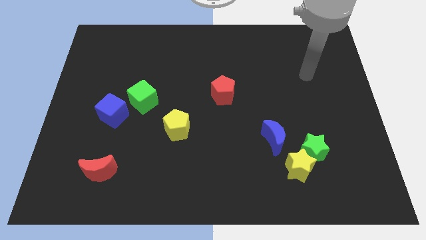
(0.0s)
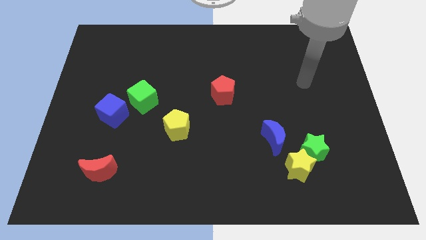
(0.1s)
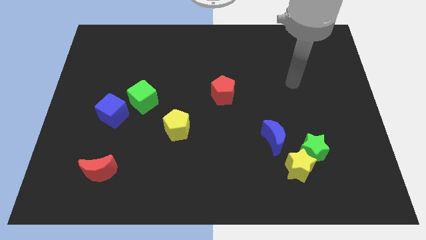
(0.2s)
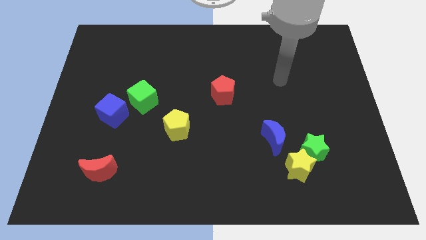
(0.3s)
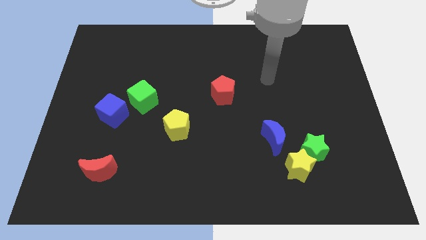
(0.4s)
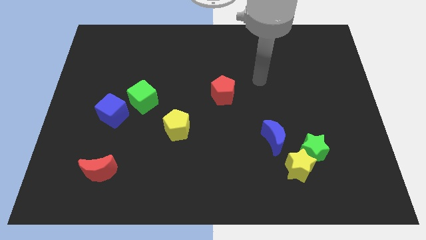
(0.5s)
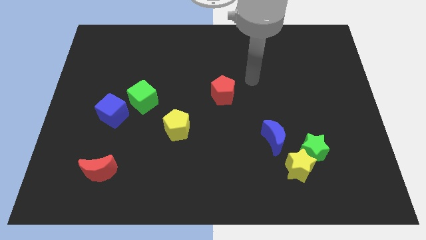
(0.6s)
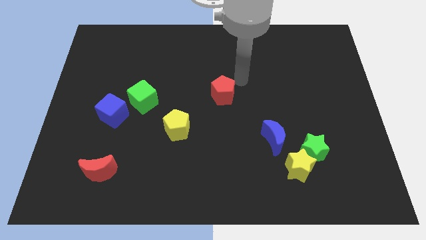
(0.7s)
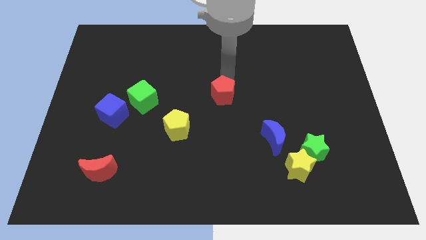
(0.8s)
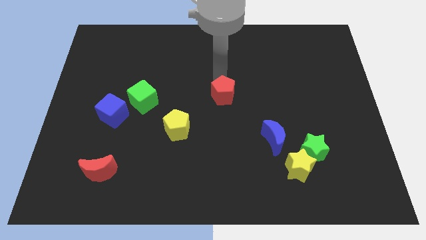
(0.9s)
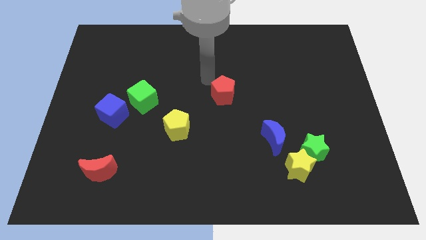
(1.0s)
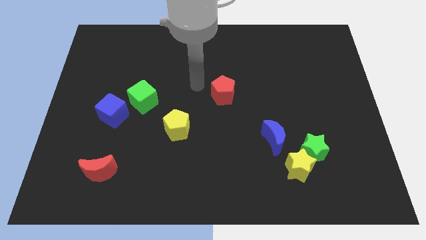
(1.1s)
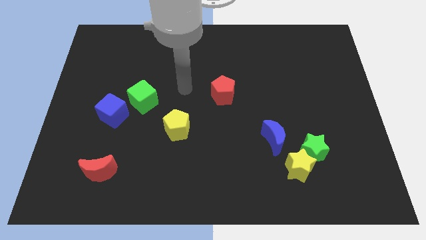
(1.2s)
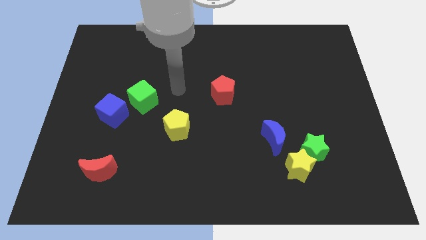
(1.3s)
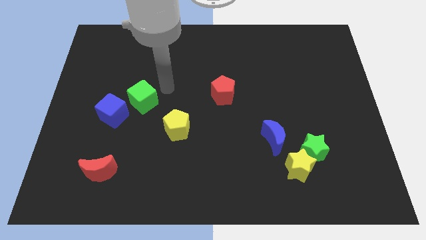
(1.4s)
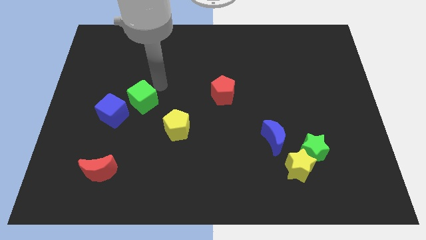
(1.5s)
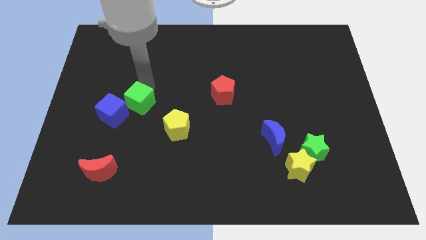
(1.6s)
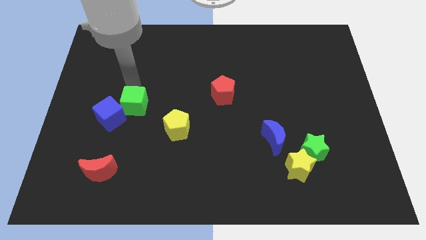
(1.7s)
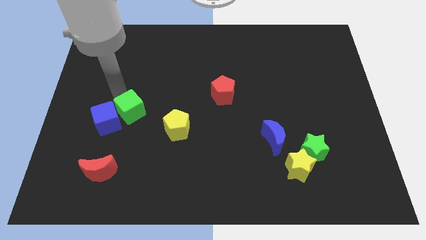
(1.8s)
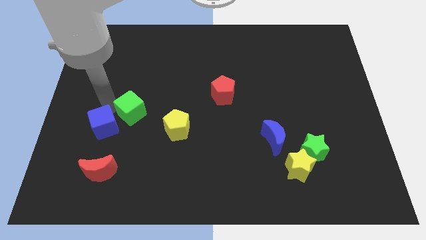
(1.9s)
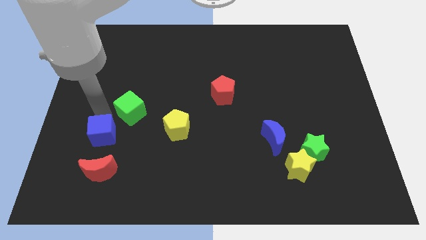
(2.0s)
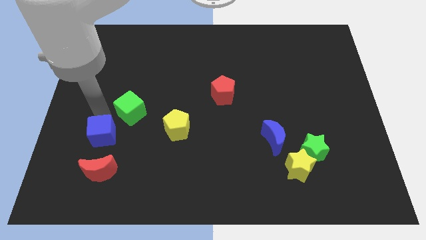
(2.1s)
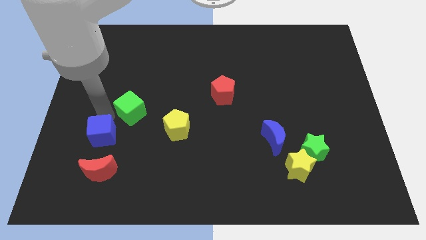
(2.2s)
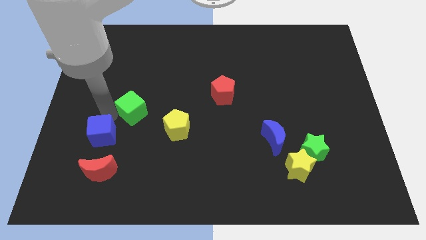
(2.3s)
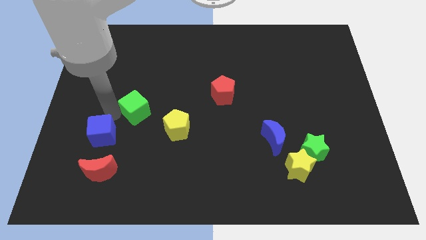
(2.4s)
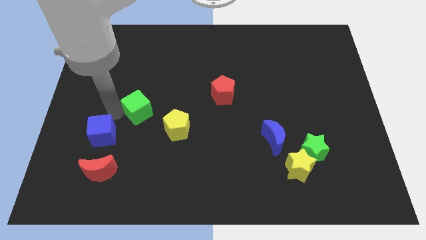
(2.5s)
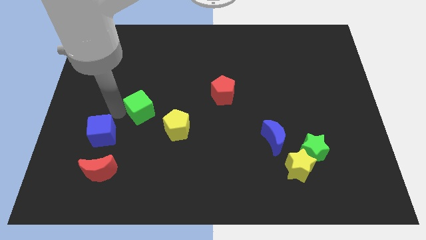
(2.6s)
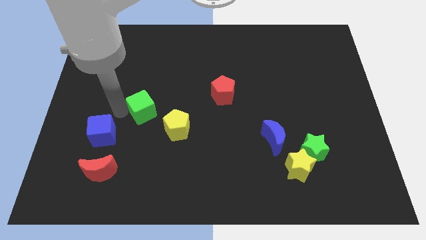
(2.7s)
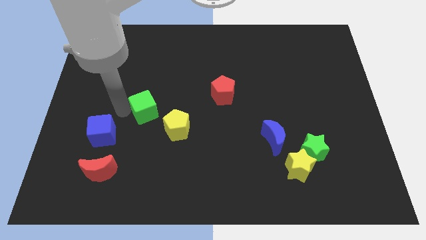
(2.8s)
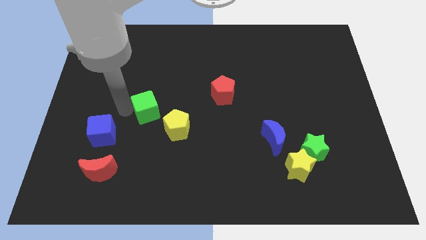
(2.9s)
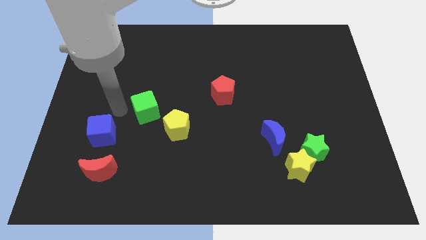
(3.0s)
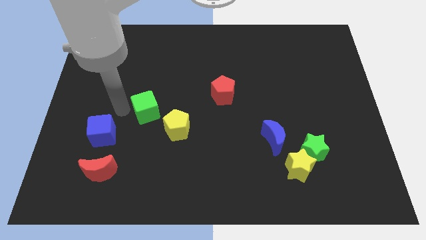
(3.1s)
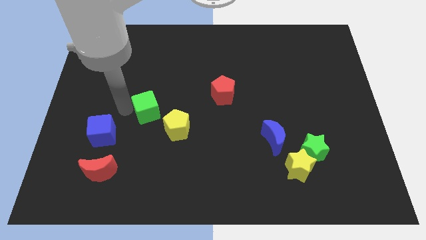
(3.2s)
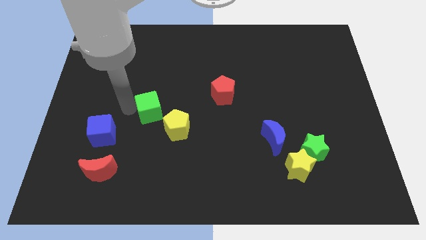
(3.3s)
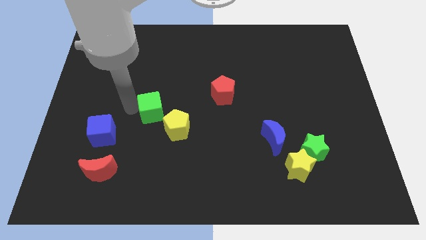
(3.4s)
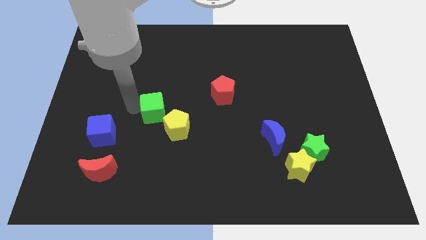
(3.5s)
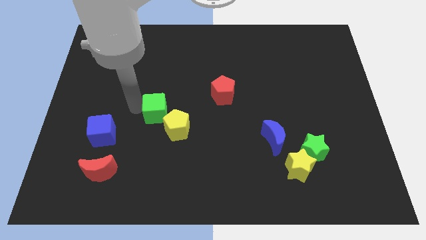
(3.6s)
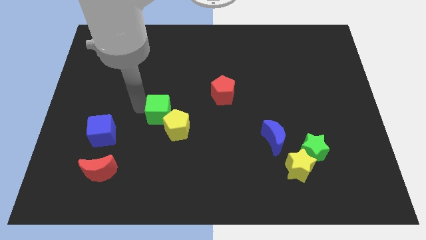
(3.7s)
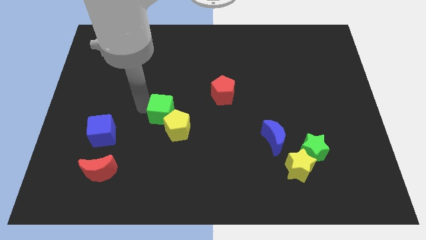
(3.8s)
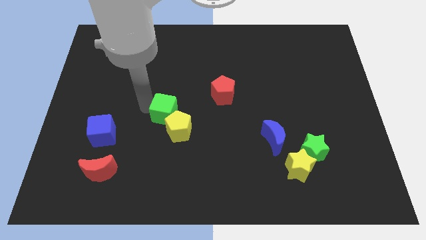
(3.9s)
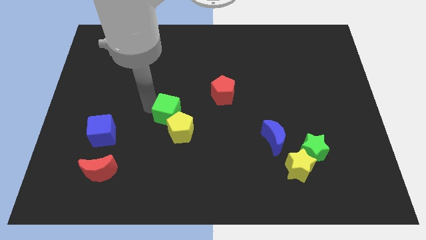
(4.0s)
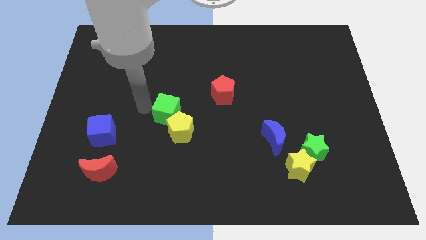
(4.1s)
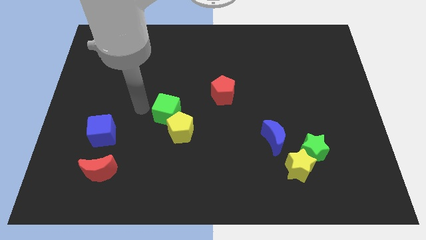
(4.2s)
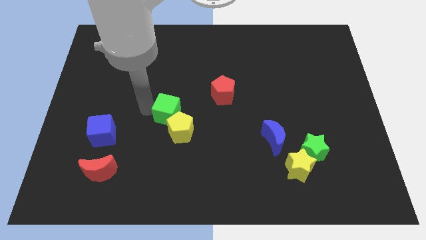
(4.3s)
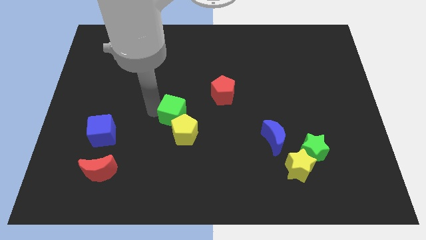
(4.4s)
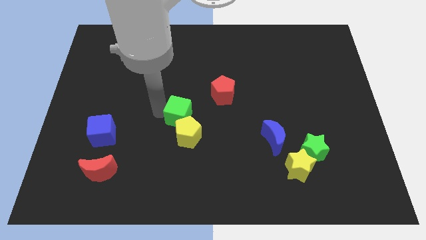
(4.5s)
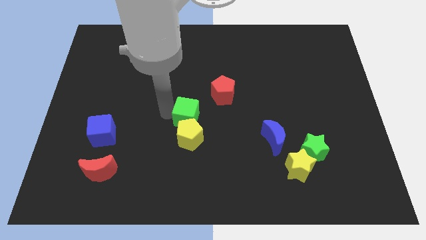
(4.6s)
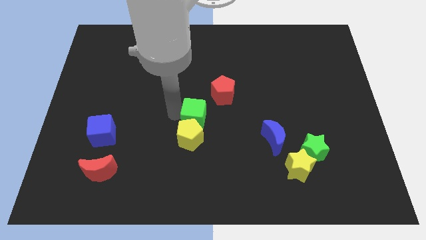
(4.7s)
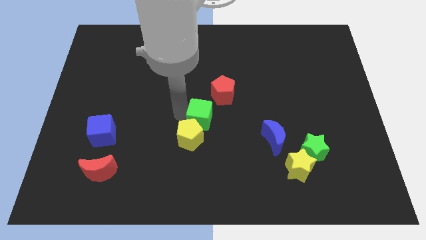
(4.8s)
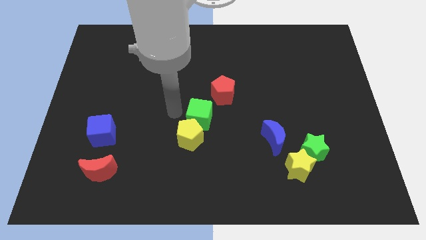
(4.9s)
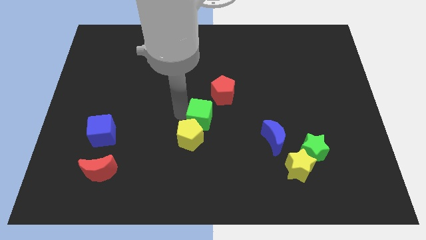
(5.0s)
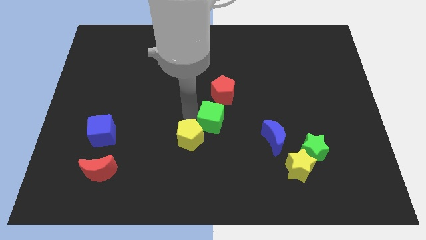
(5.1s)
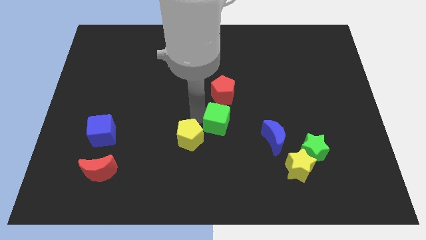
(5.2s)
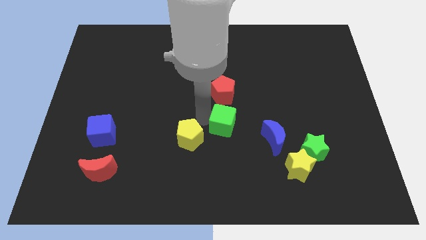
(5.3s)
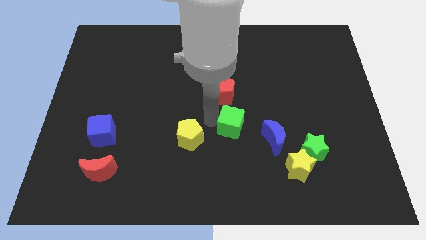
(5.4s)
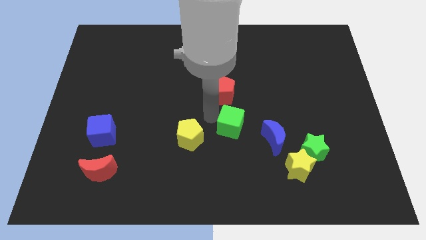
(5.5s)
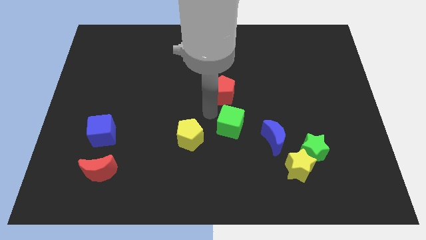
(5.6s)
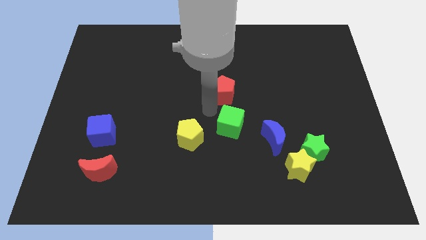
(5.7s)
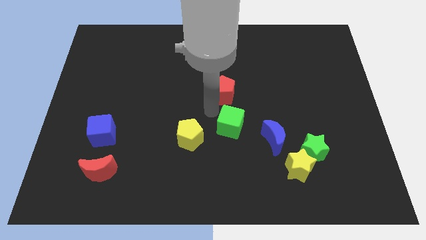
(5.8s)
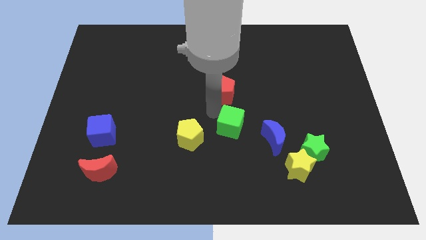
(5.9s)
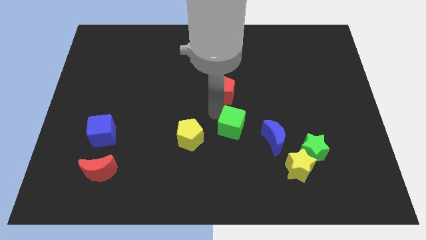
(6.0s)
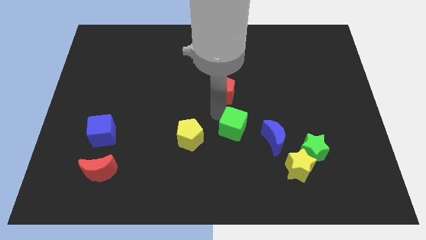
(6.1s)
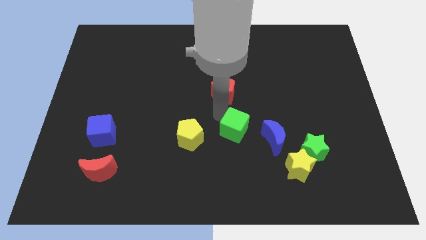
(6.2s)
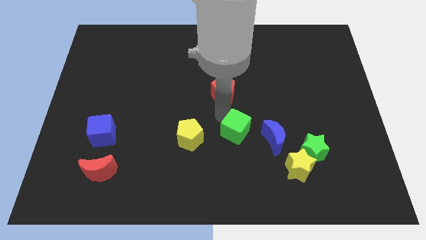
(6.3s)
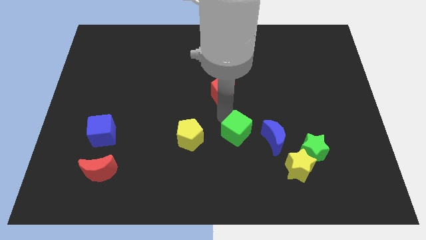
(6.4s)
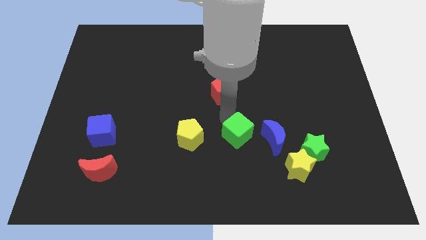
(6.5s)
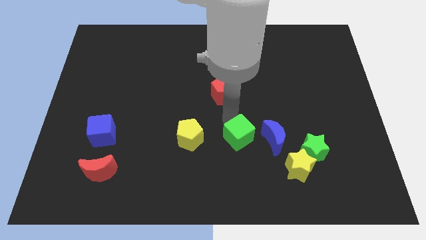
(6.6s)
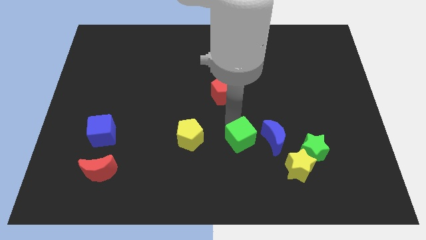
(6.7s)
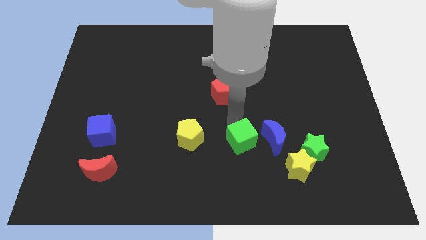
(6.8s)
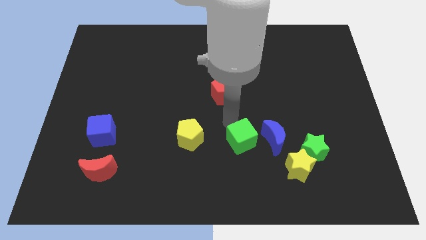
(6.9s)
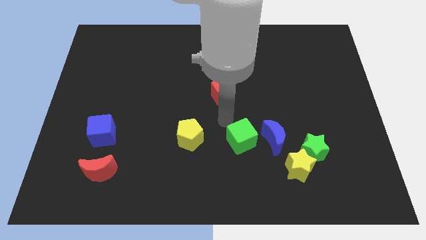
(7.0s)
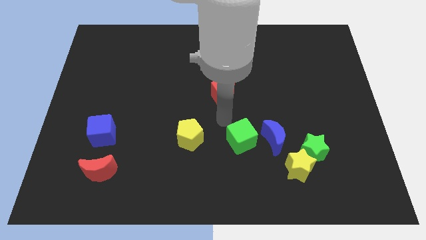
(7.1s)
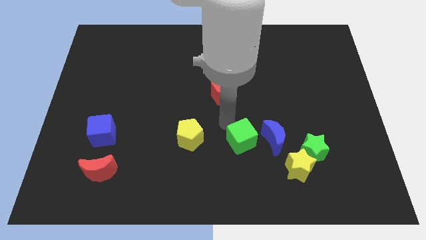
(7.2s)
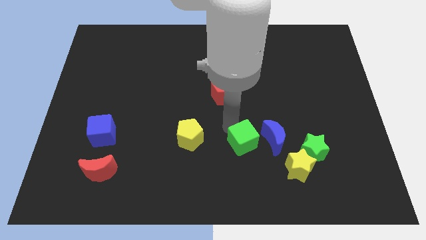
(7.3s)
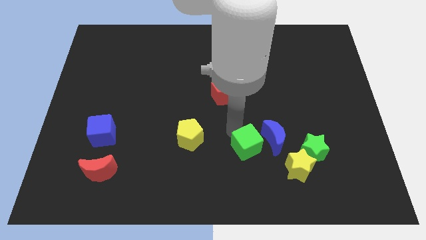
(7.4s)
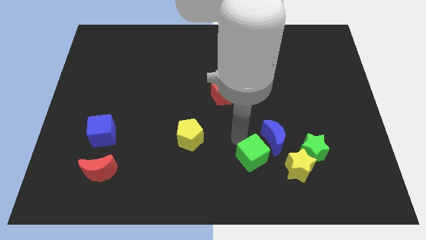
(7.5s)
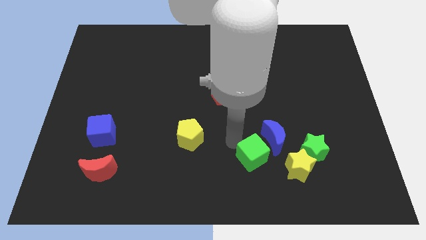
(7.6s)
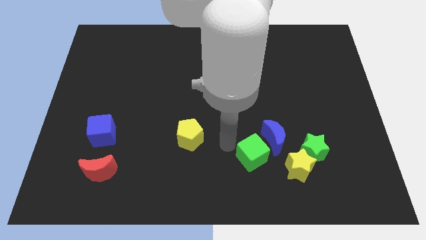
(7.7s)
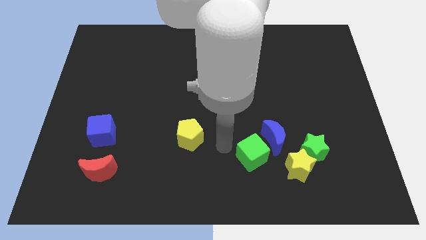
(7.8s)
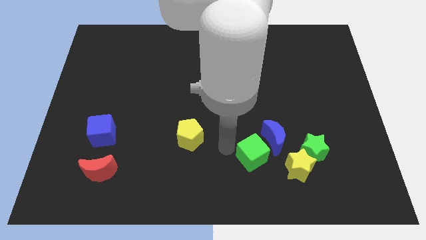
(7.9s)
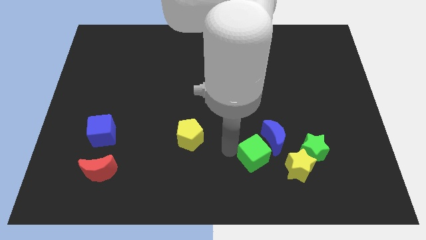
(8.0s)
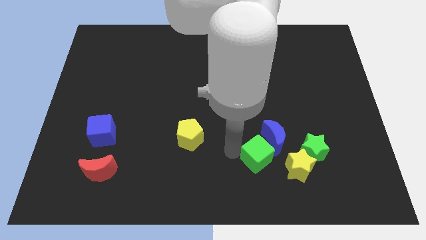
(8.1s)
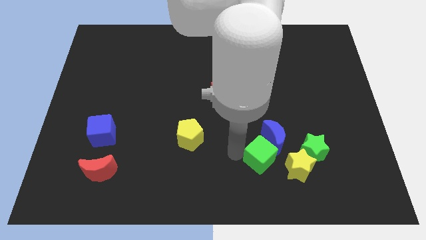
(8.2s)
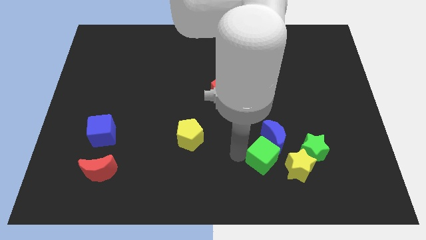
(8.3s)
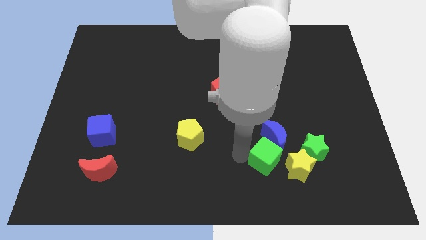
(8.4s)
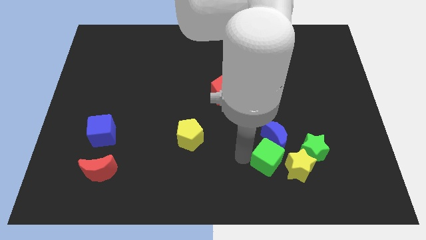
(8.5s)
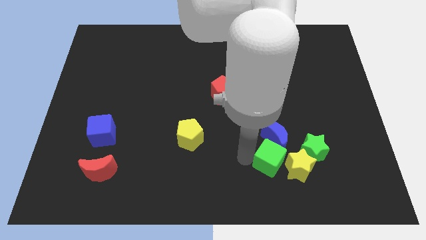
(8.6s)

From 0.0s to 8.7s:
put the green cube to the yellow star
